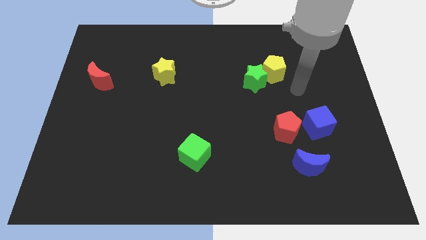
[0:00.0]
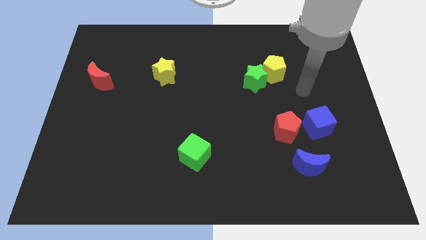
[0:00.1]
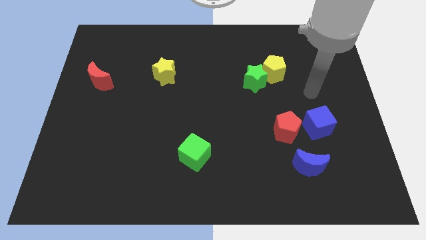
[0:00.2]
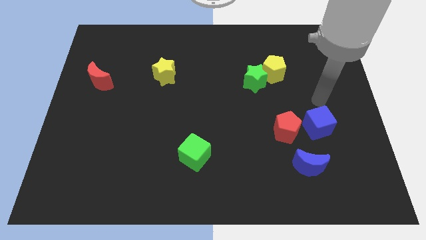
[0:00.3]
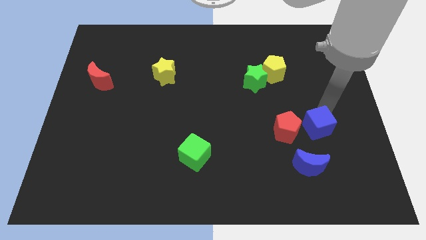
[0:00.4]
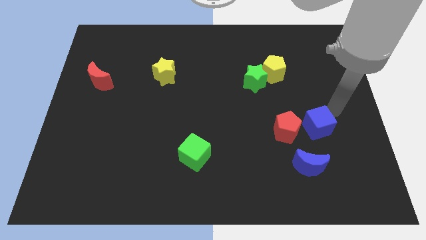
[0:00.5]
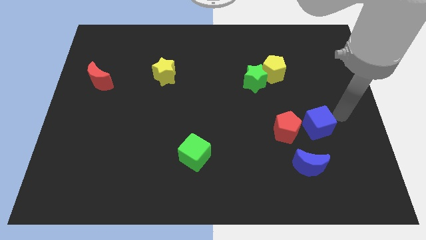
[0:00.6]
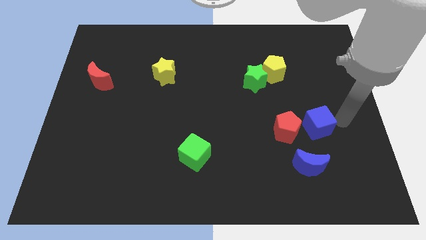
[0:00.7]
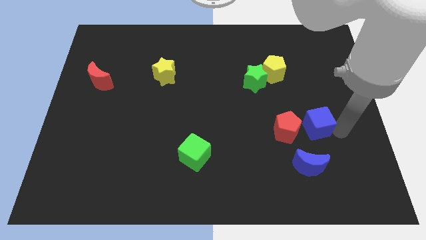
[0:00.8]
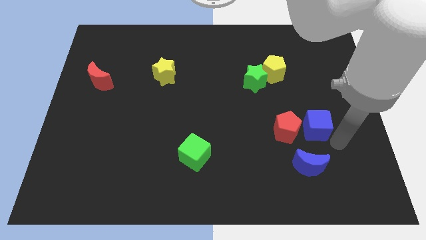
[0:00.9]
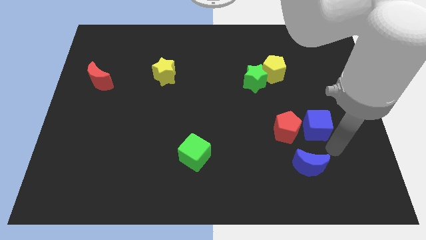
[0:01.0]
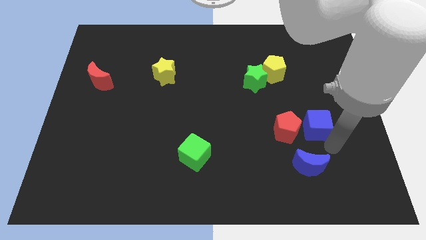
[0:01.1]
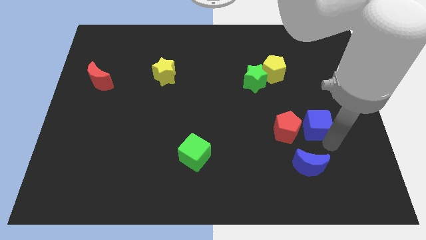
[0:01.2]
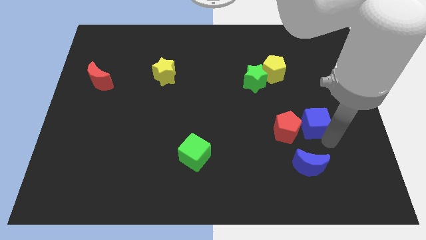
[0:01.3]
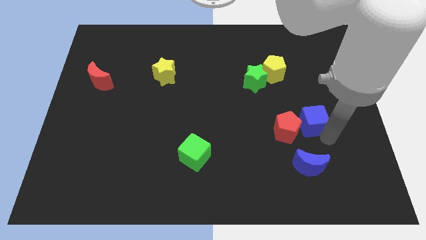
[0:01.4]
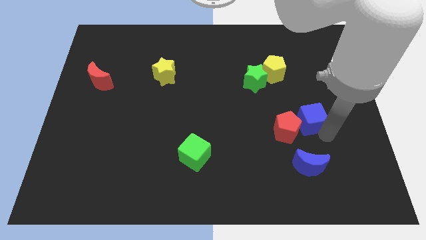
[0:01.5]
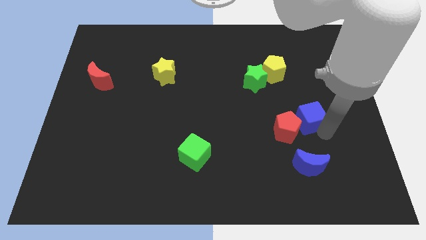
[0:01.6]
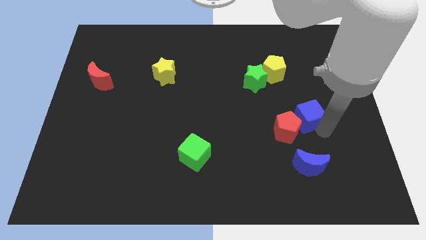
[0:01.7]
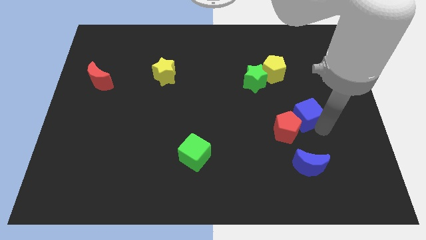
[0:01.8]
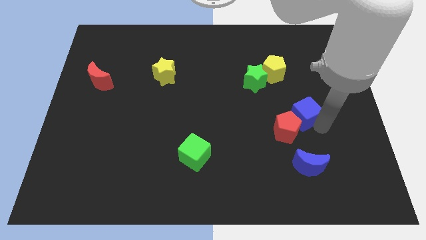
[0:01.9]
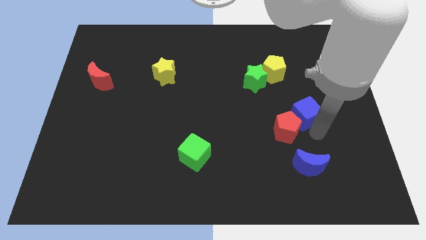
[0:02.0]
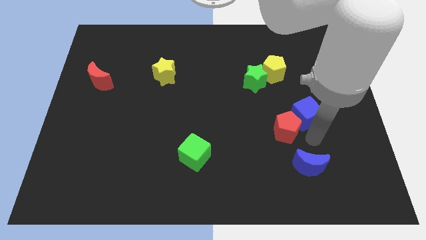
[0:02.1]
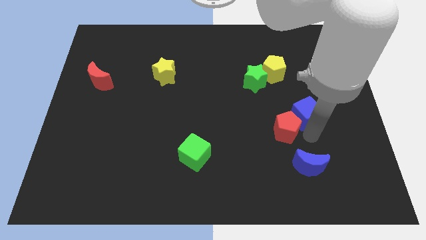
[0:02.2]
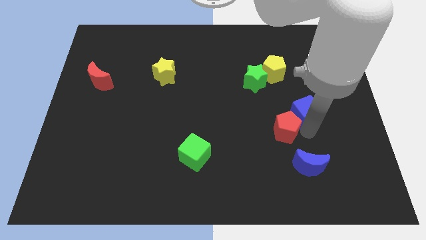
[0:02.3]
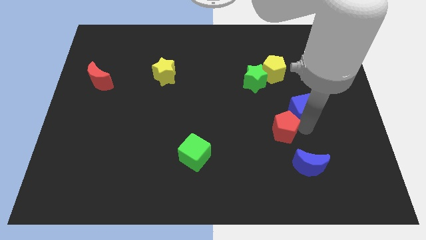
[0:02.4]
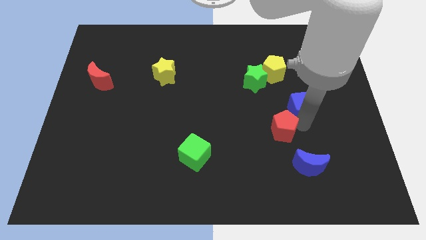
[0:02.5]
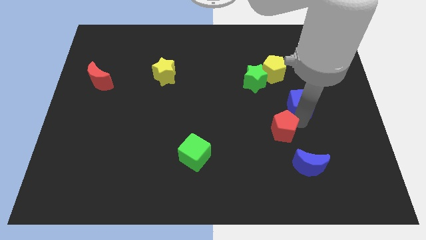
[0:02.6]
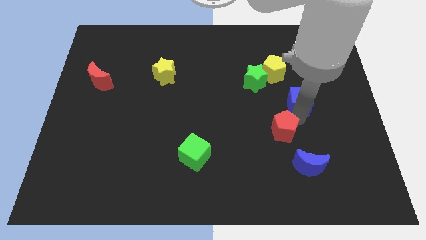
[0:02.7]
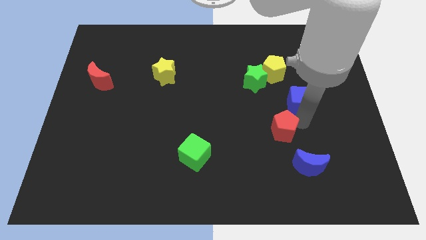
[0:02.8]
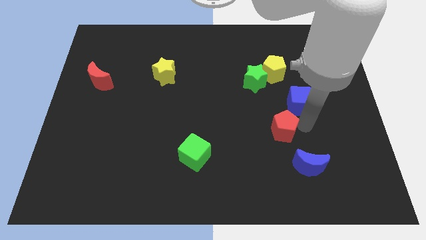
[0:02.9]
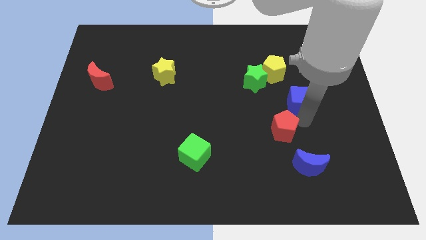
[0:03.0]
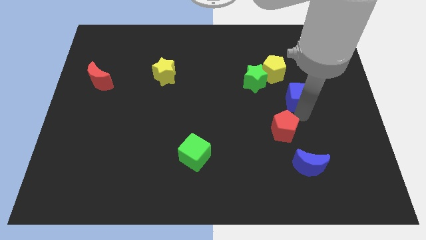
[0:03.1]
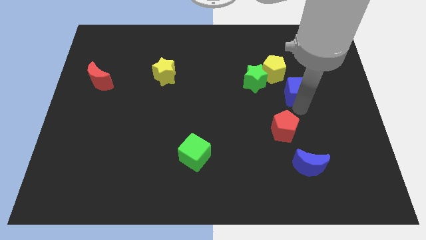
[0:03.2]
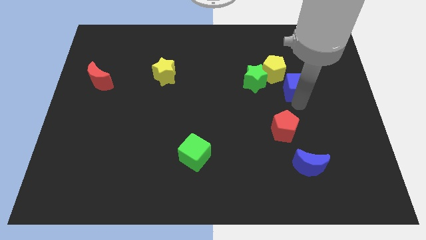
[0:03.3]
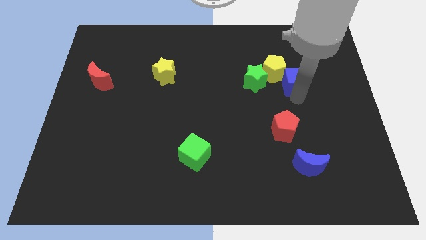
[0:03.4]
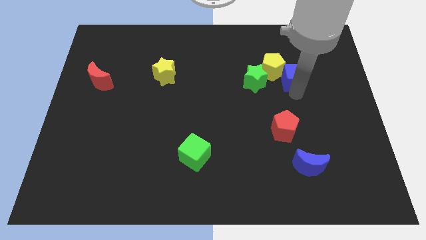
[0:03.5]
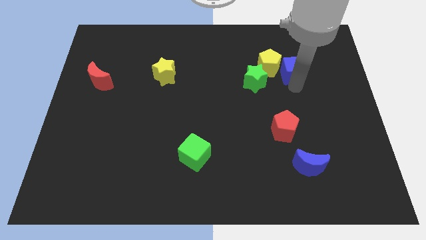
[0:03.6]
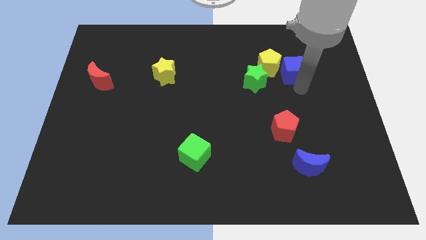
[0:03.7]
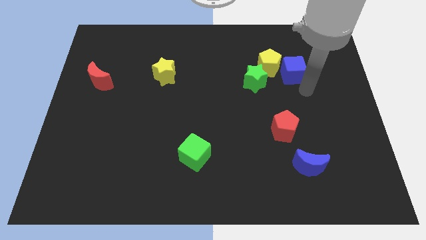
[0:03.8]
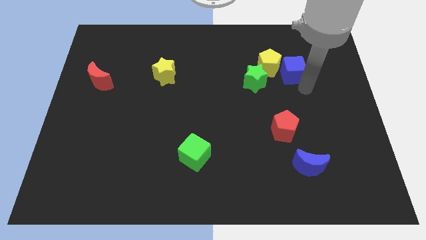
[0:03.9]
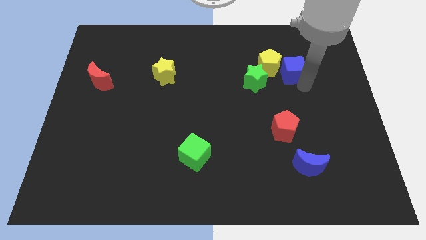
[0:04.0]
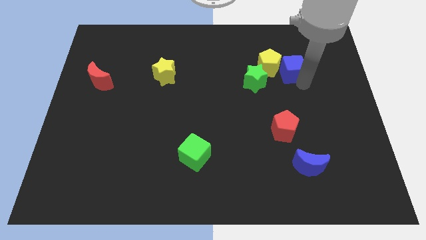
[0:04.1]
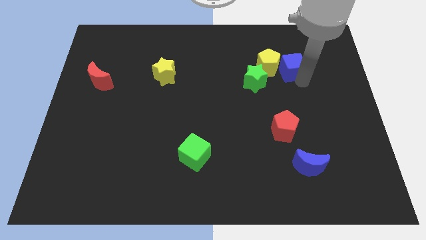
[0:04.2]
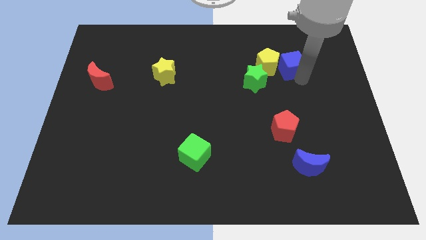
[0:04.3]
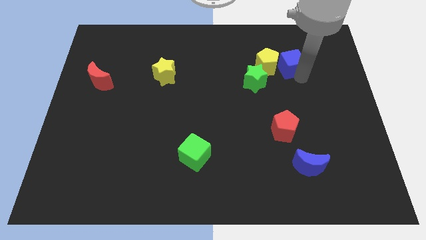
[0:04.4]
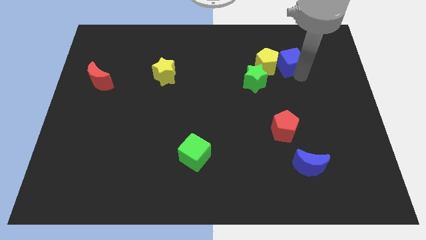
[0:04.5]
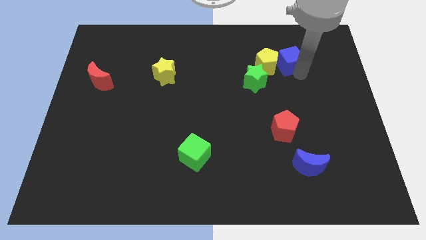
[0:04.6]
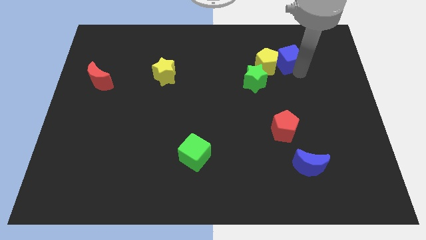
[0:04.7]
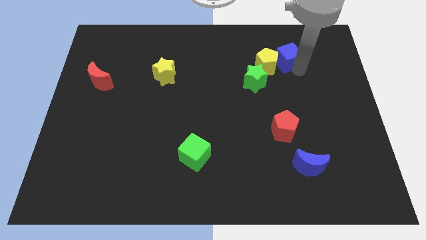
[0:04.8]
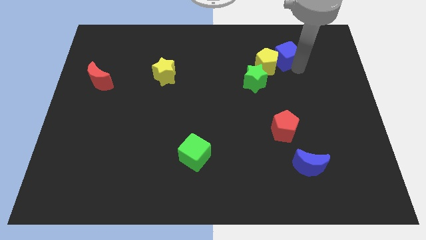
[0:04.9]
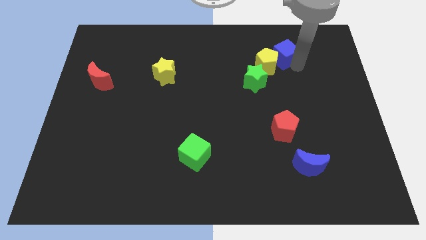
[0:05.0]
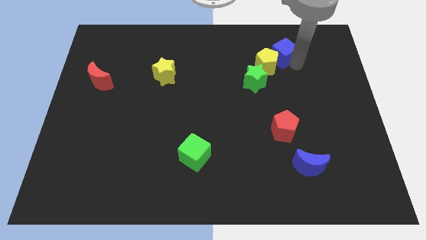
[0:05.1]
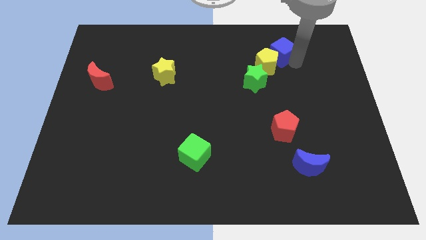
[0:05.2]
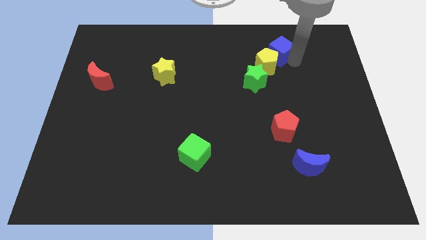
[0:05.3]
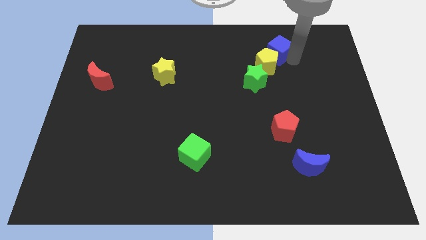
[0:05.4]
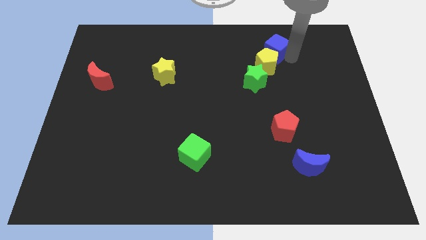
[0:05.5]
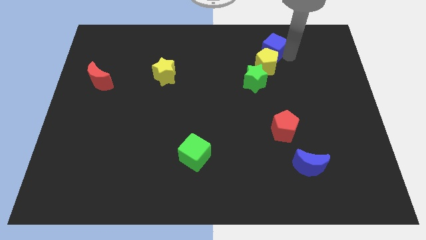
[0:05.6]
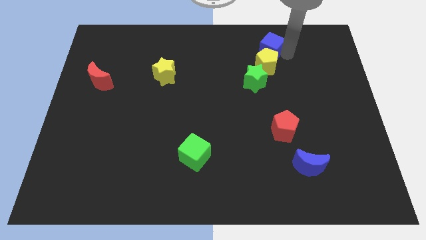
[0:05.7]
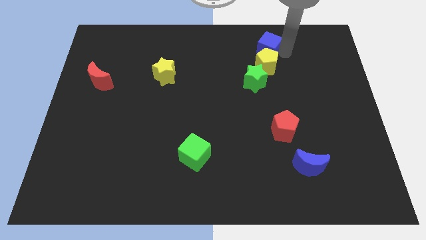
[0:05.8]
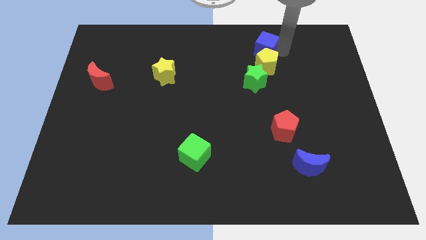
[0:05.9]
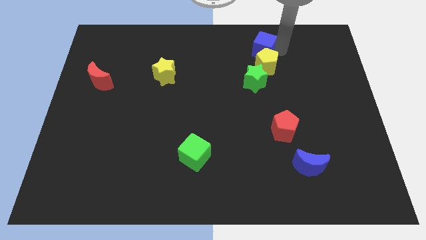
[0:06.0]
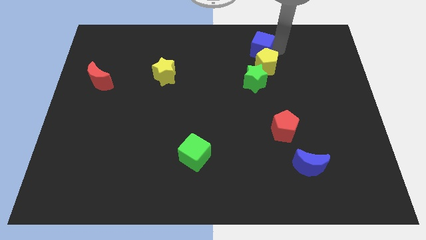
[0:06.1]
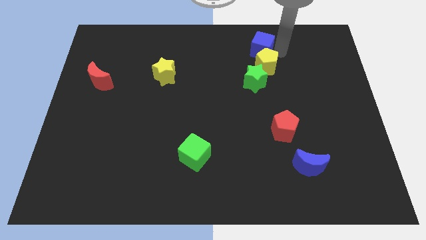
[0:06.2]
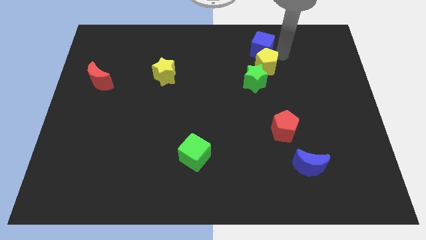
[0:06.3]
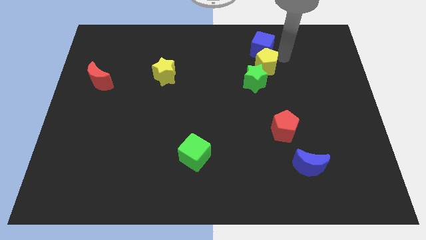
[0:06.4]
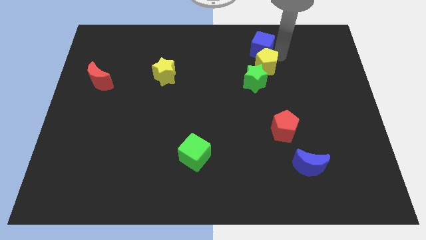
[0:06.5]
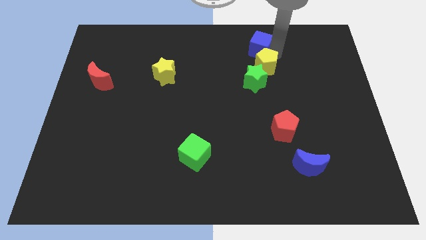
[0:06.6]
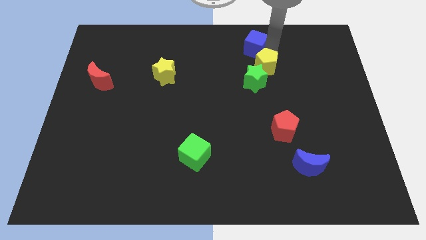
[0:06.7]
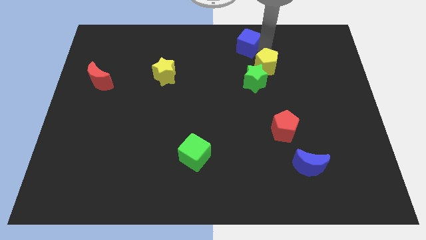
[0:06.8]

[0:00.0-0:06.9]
put the blue cube to the top
